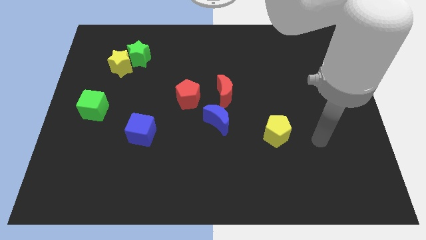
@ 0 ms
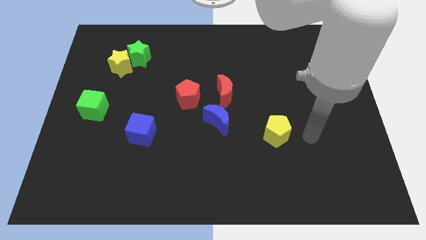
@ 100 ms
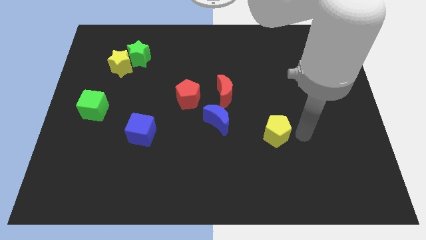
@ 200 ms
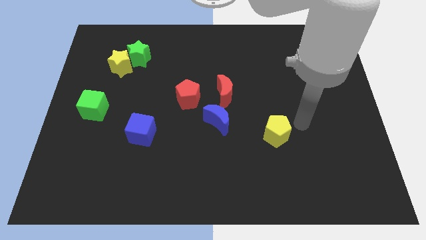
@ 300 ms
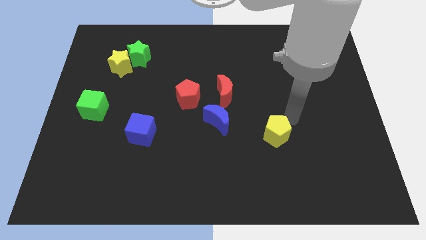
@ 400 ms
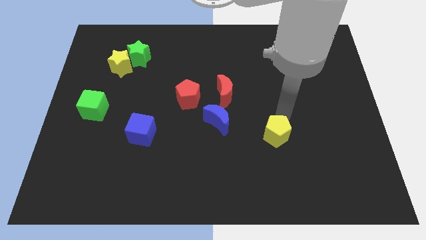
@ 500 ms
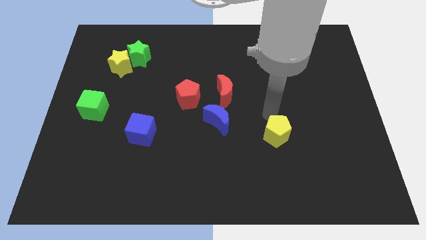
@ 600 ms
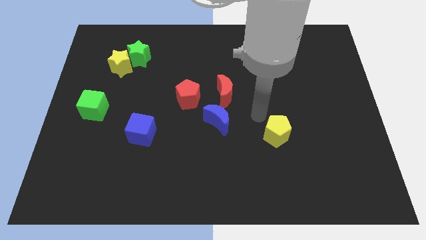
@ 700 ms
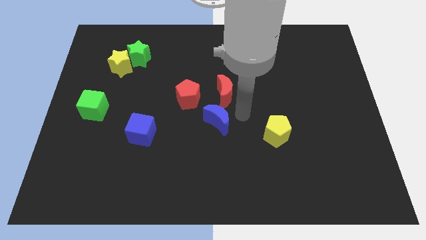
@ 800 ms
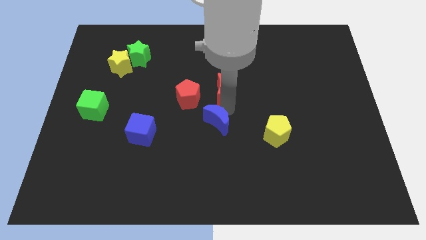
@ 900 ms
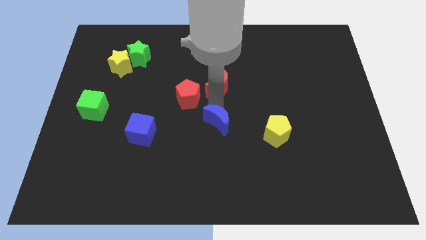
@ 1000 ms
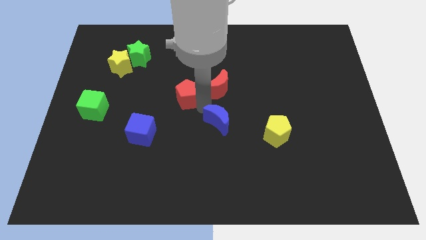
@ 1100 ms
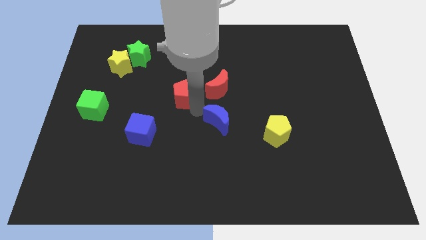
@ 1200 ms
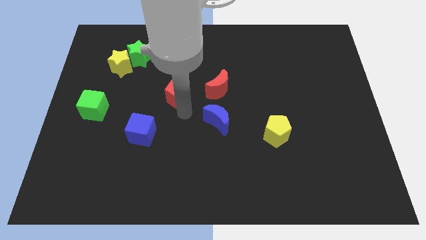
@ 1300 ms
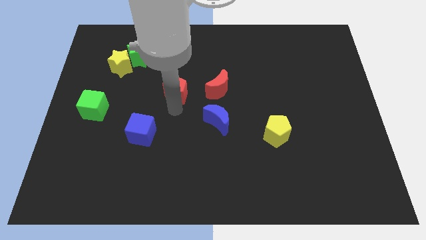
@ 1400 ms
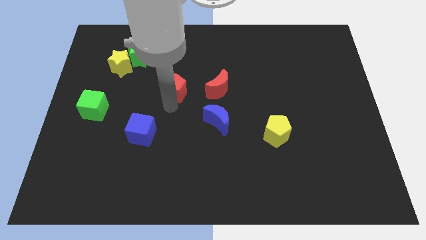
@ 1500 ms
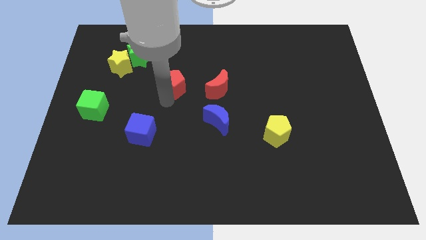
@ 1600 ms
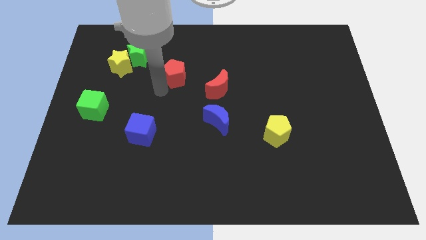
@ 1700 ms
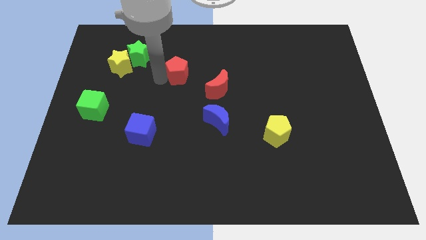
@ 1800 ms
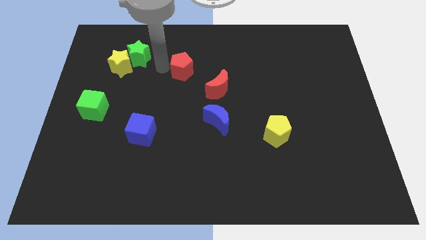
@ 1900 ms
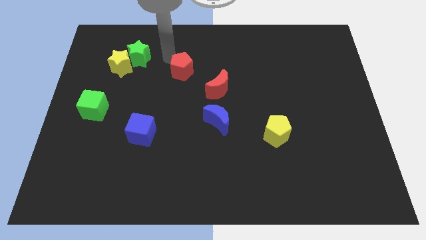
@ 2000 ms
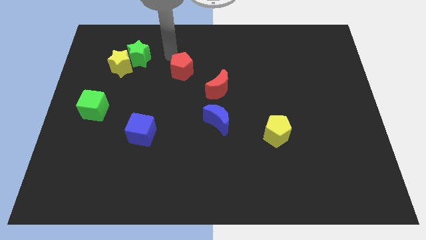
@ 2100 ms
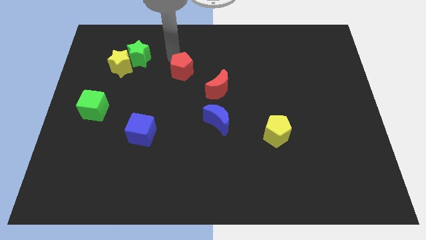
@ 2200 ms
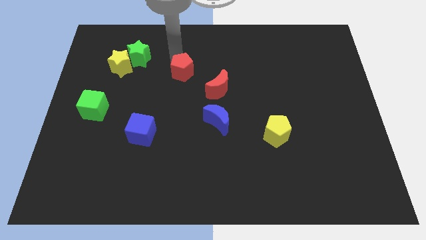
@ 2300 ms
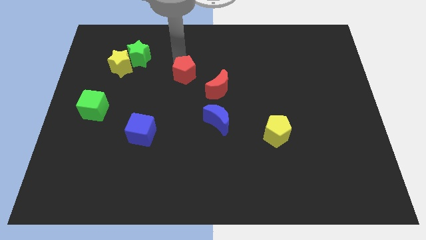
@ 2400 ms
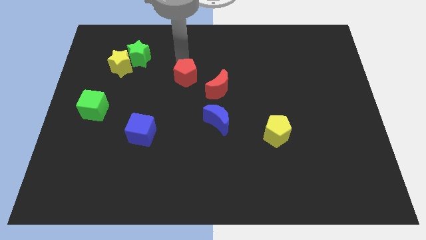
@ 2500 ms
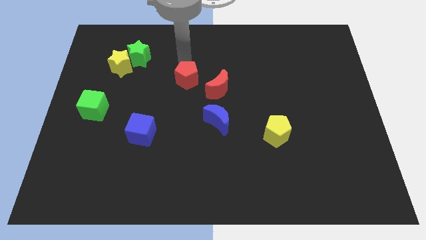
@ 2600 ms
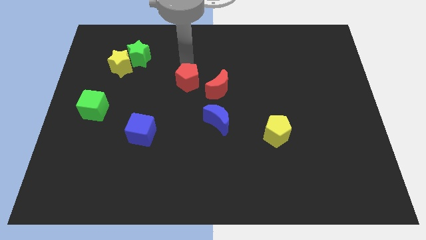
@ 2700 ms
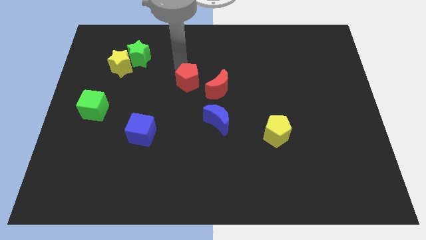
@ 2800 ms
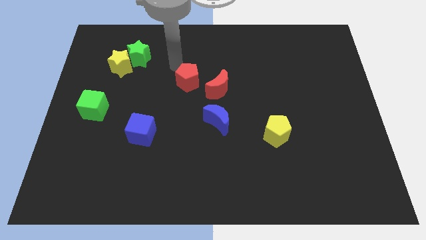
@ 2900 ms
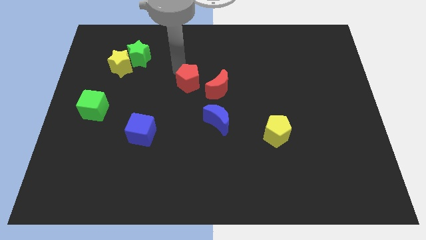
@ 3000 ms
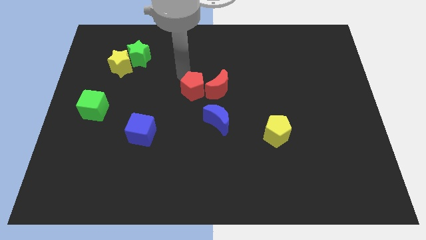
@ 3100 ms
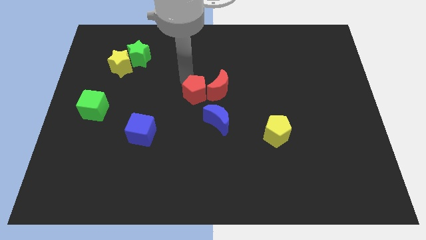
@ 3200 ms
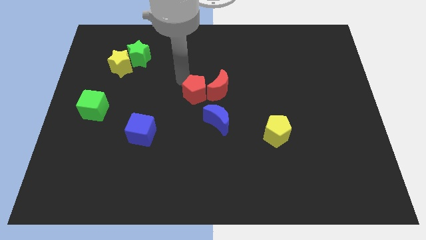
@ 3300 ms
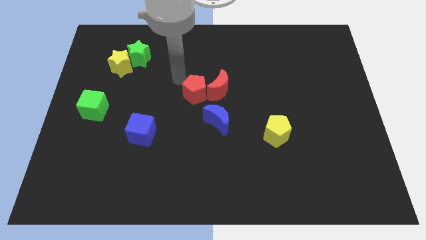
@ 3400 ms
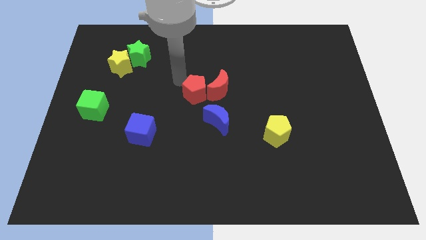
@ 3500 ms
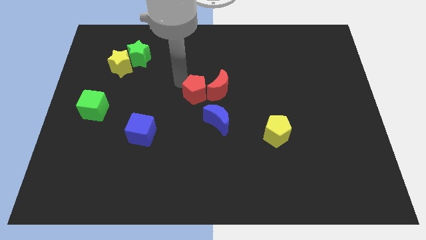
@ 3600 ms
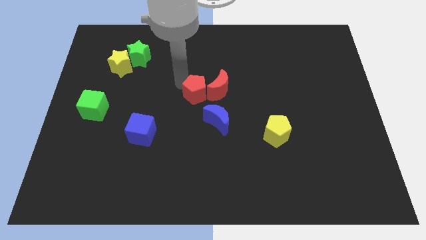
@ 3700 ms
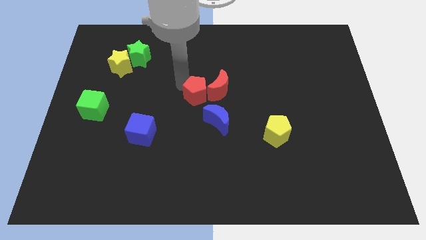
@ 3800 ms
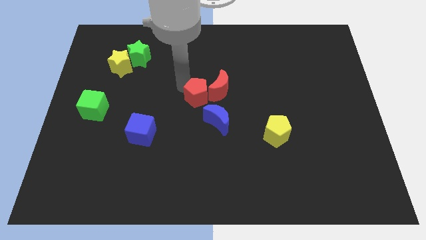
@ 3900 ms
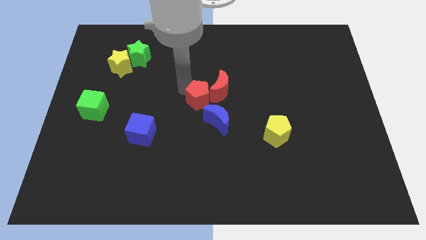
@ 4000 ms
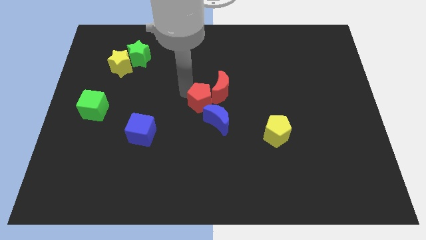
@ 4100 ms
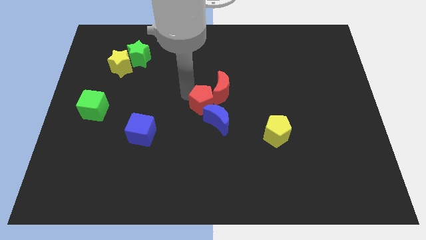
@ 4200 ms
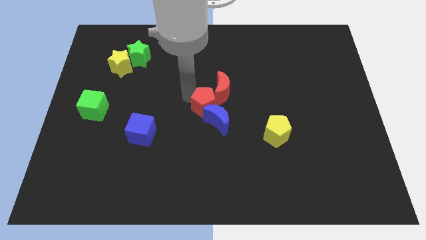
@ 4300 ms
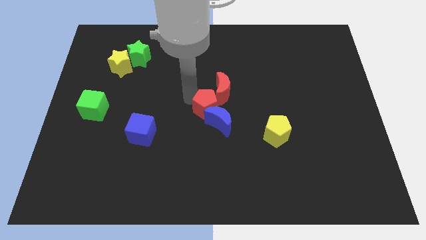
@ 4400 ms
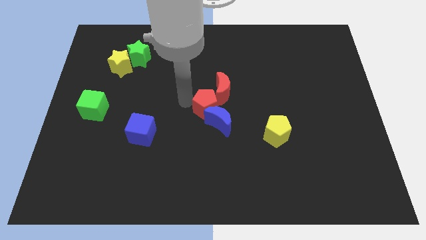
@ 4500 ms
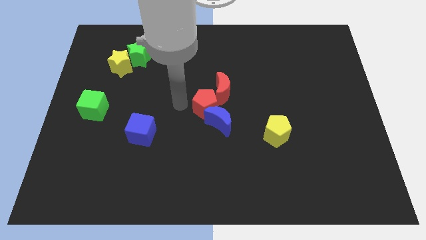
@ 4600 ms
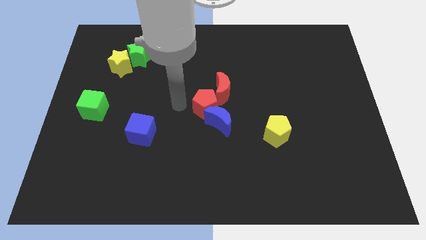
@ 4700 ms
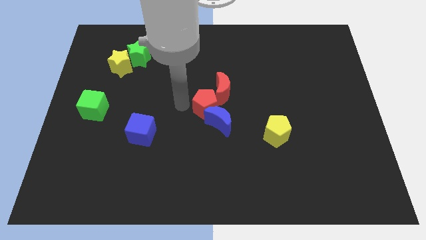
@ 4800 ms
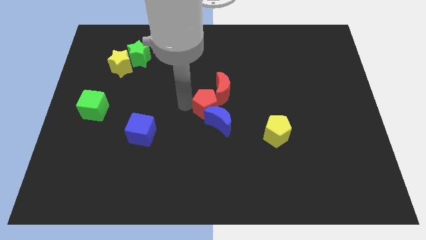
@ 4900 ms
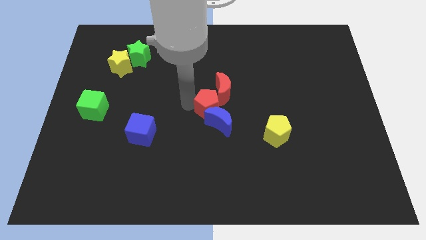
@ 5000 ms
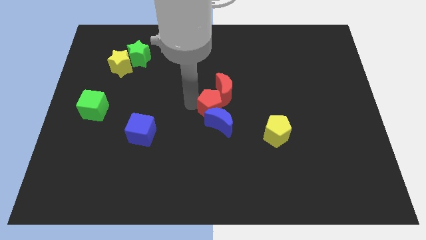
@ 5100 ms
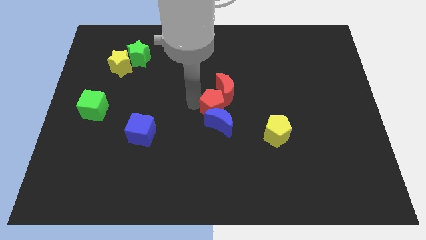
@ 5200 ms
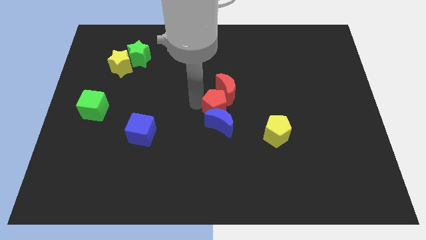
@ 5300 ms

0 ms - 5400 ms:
push the red pentagon downwards and right diagonally somewhat

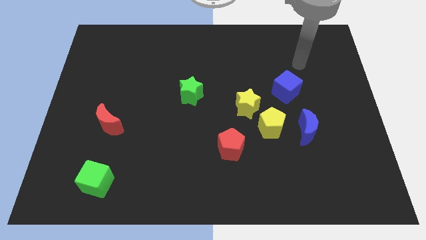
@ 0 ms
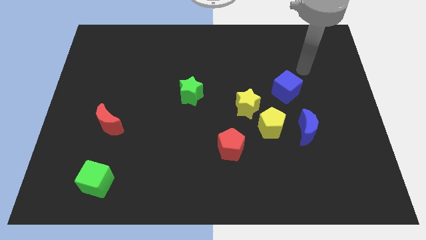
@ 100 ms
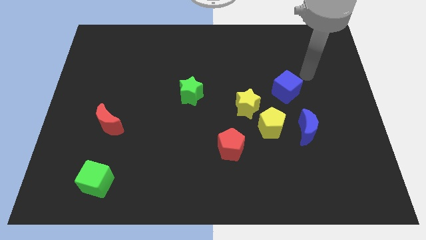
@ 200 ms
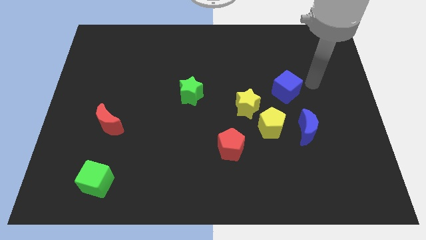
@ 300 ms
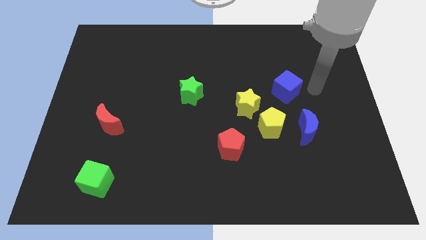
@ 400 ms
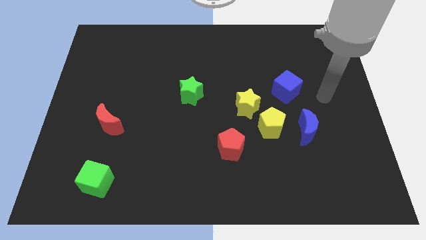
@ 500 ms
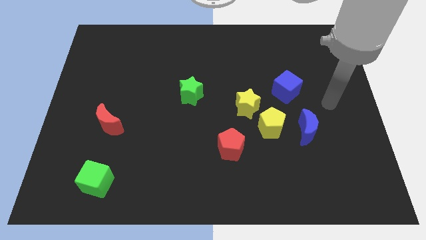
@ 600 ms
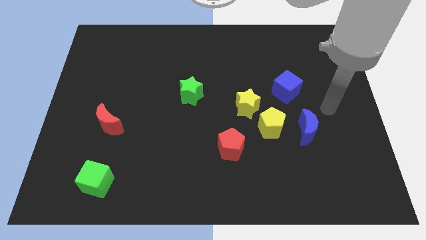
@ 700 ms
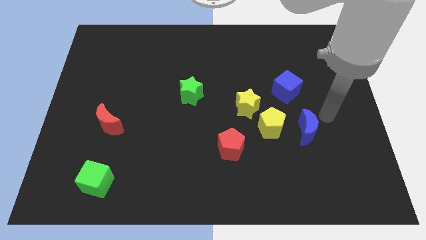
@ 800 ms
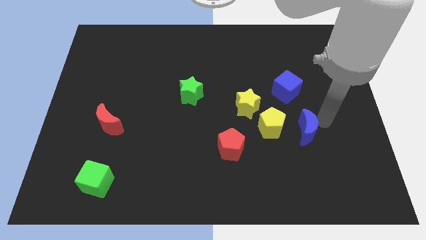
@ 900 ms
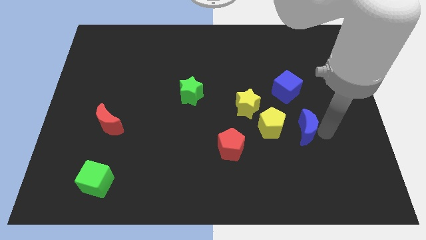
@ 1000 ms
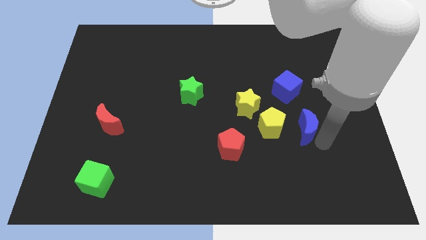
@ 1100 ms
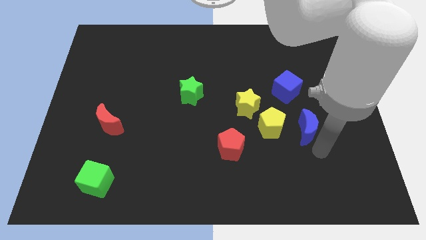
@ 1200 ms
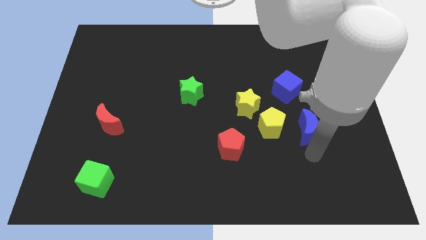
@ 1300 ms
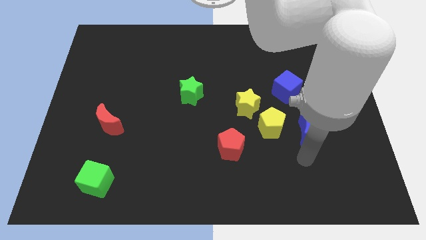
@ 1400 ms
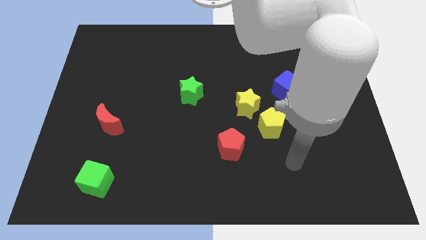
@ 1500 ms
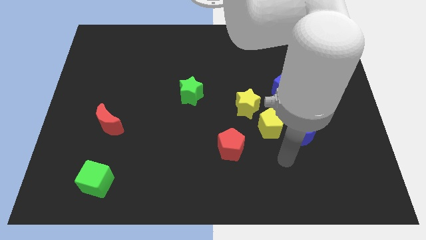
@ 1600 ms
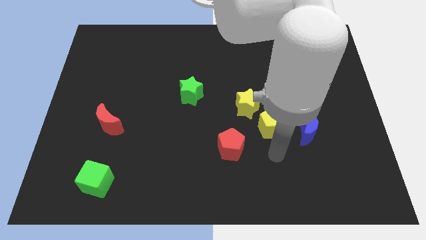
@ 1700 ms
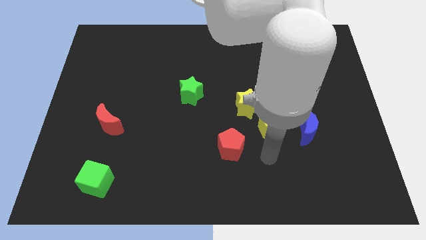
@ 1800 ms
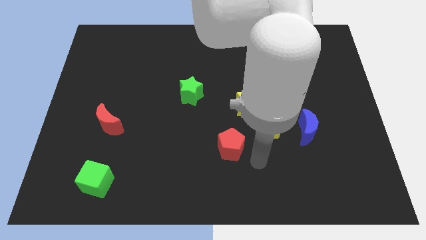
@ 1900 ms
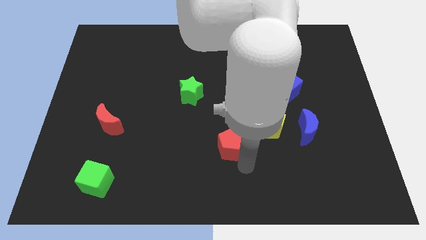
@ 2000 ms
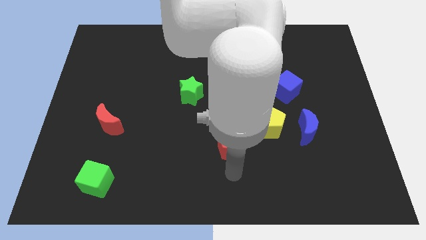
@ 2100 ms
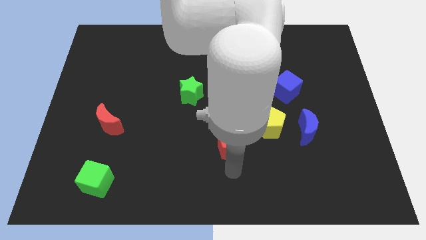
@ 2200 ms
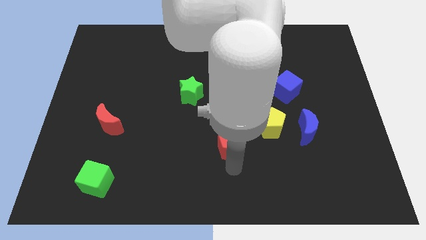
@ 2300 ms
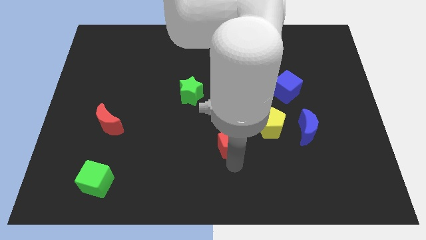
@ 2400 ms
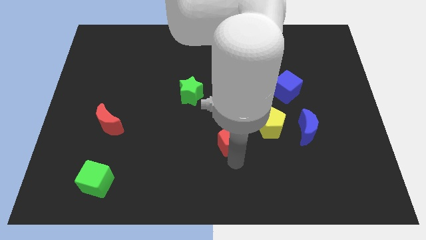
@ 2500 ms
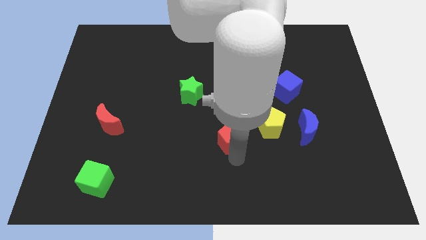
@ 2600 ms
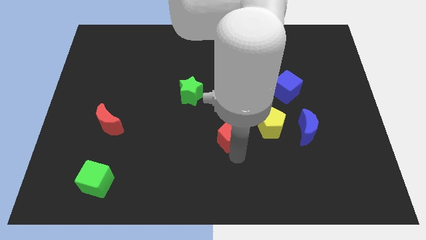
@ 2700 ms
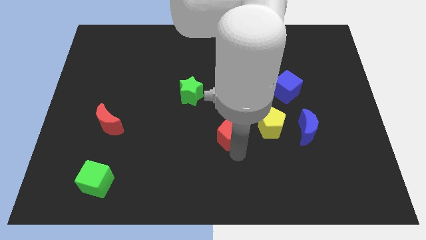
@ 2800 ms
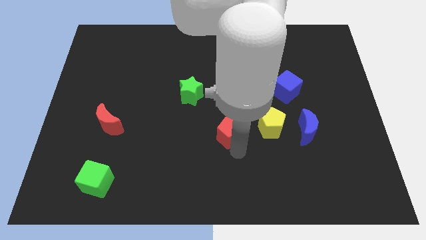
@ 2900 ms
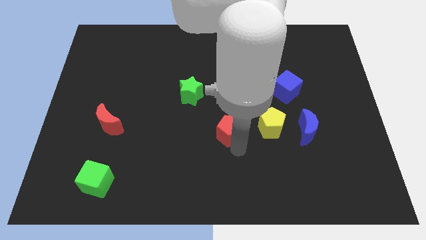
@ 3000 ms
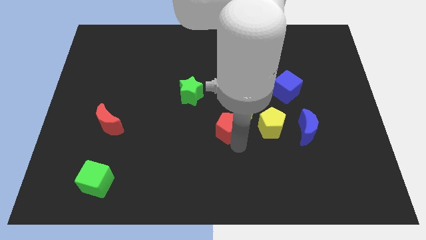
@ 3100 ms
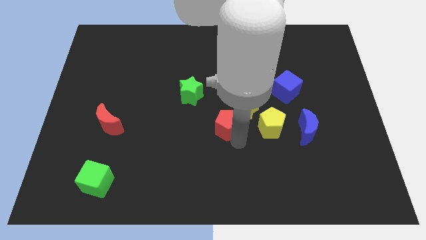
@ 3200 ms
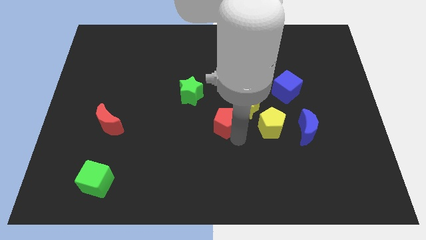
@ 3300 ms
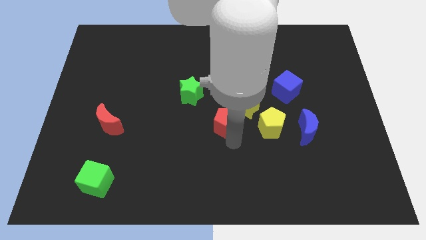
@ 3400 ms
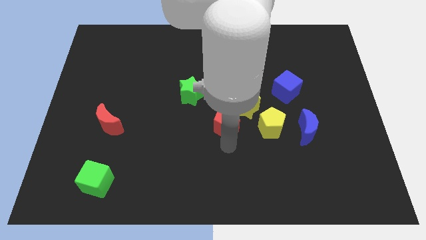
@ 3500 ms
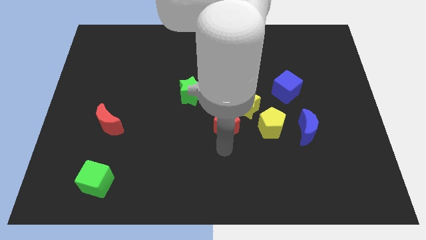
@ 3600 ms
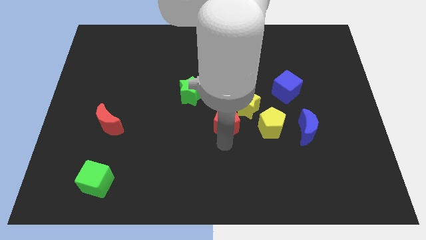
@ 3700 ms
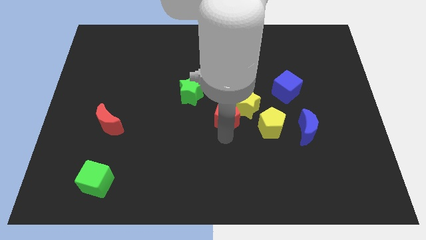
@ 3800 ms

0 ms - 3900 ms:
slide the red pentagon a little up
